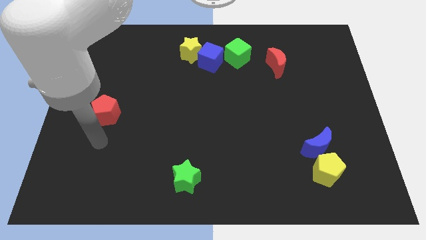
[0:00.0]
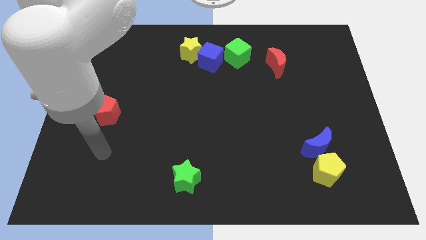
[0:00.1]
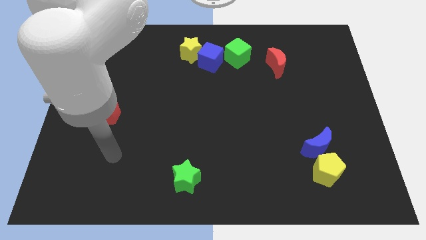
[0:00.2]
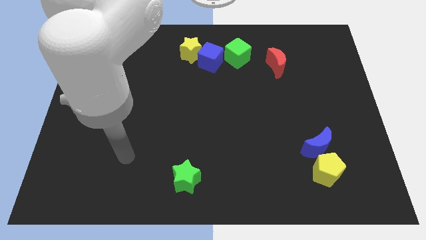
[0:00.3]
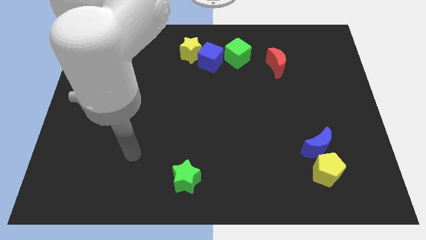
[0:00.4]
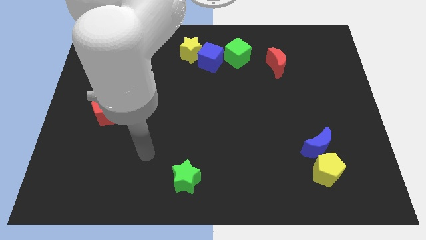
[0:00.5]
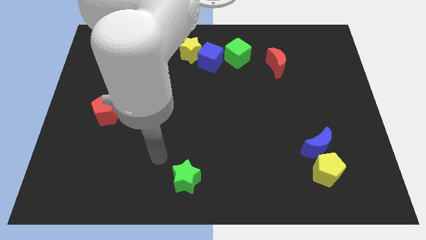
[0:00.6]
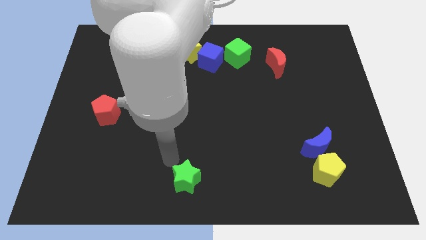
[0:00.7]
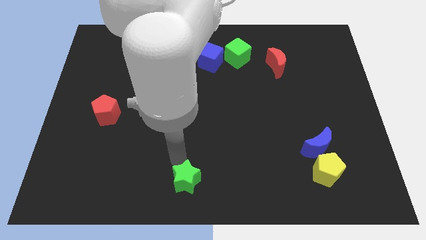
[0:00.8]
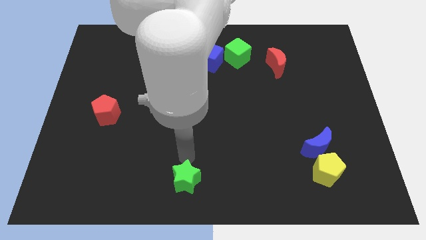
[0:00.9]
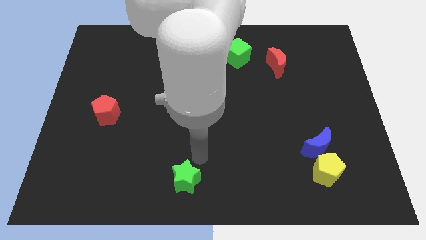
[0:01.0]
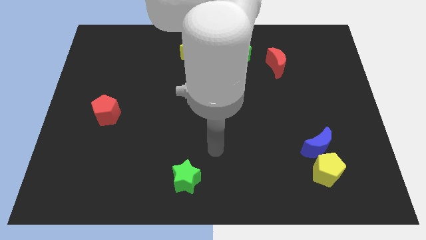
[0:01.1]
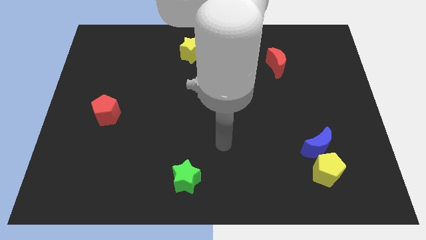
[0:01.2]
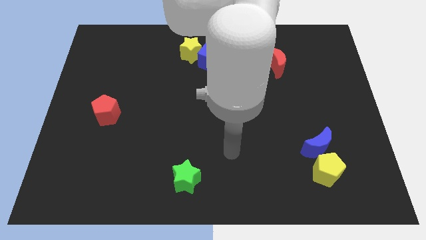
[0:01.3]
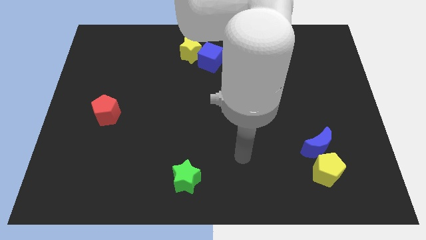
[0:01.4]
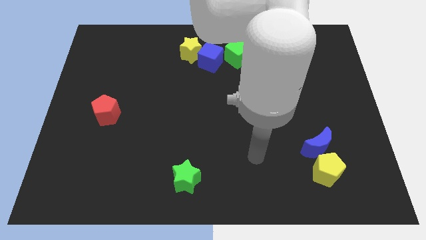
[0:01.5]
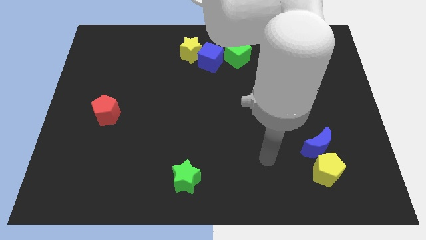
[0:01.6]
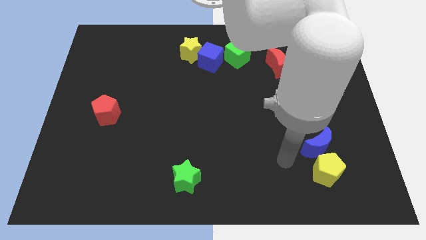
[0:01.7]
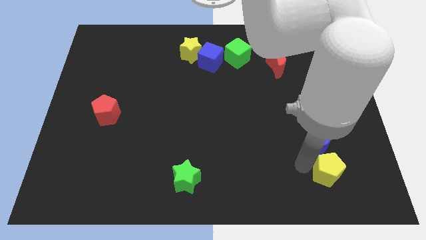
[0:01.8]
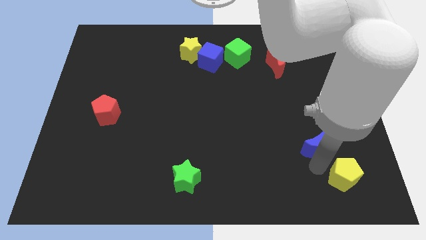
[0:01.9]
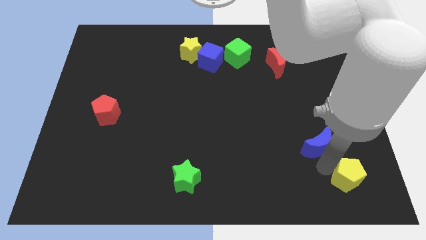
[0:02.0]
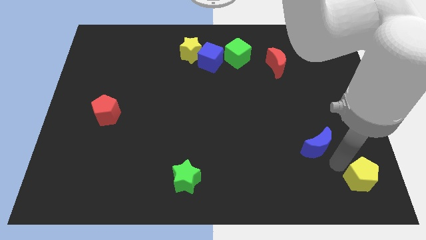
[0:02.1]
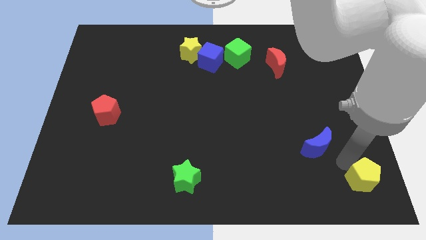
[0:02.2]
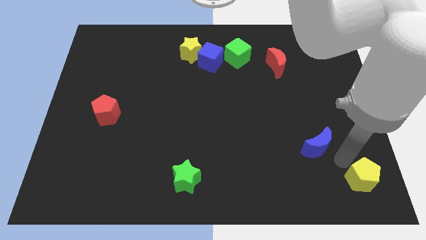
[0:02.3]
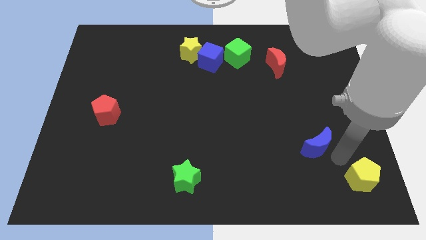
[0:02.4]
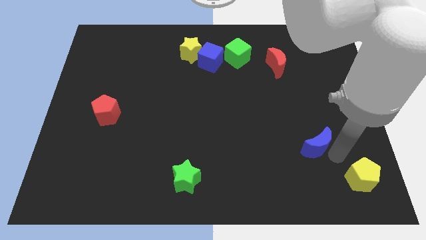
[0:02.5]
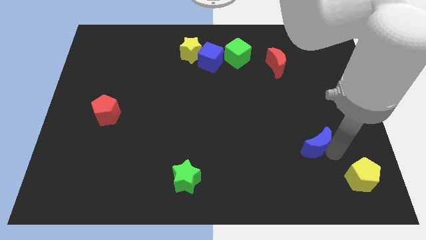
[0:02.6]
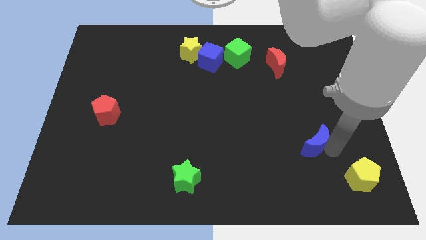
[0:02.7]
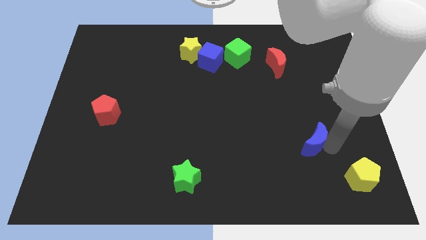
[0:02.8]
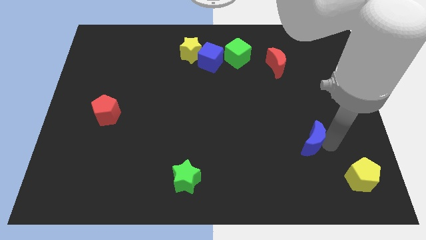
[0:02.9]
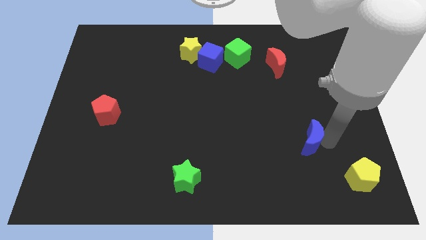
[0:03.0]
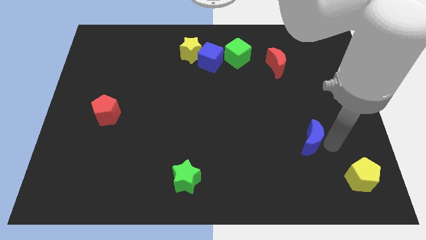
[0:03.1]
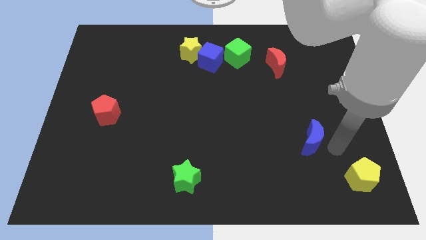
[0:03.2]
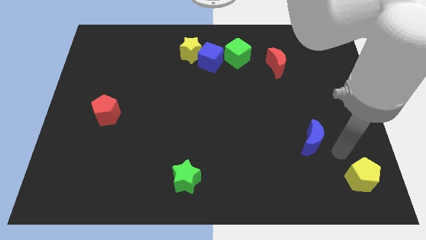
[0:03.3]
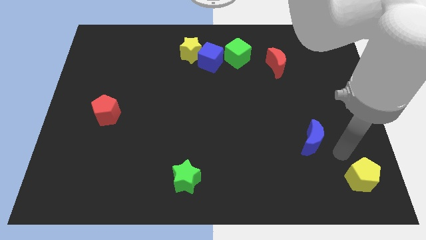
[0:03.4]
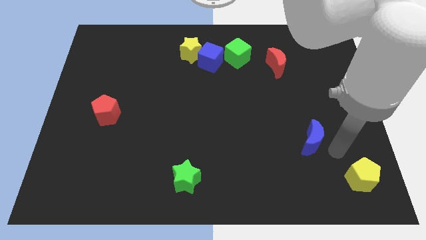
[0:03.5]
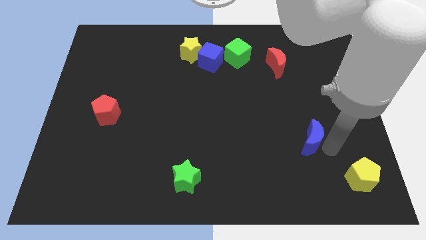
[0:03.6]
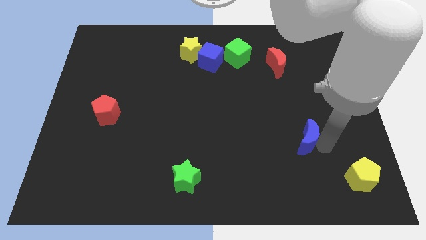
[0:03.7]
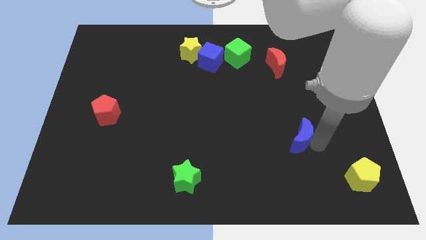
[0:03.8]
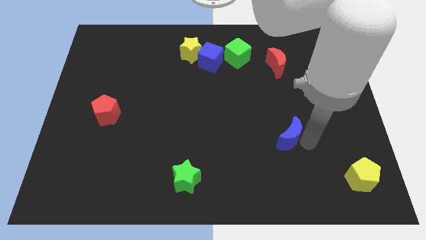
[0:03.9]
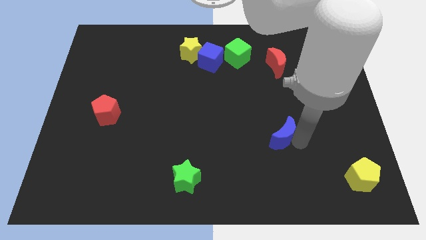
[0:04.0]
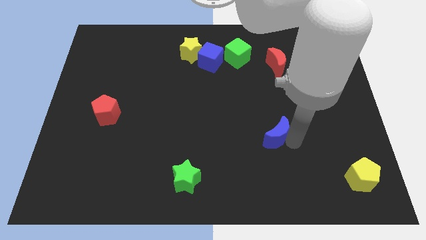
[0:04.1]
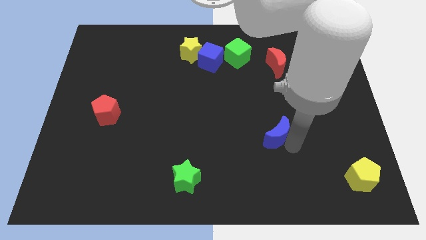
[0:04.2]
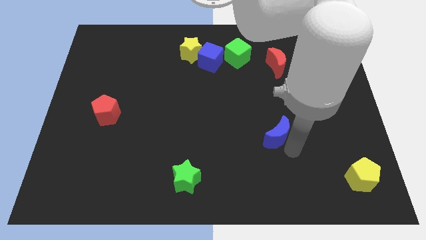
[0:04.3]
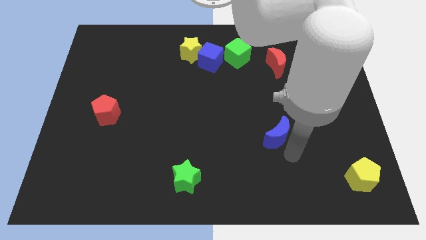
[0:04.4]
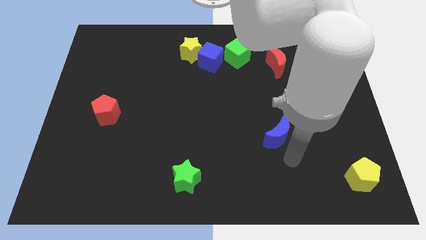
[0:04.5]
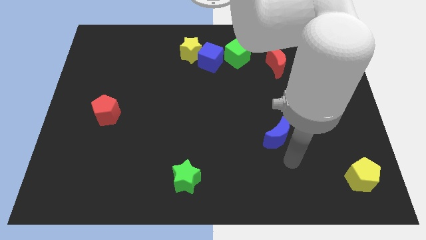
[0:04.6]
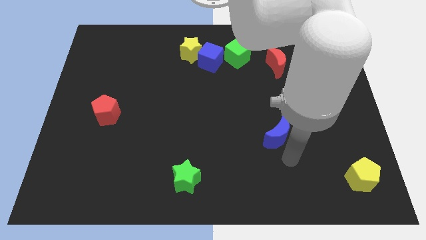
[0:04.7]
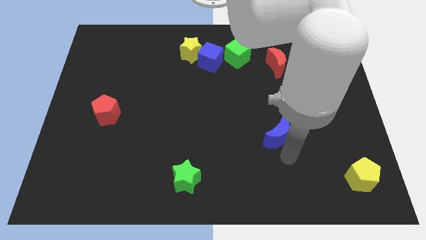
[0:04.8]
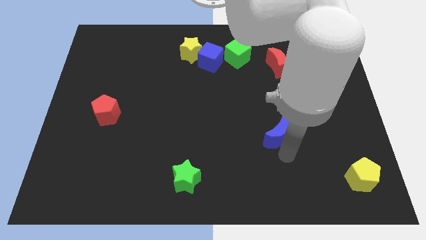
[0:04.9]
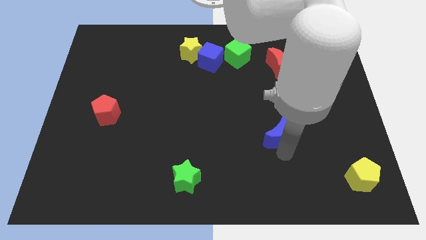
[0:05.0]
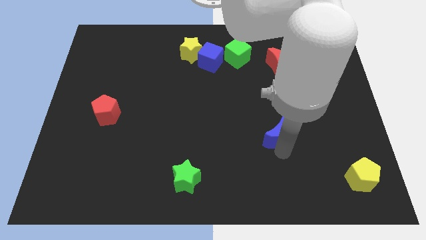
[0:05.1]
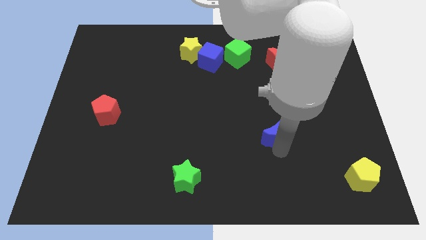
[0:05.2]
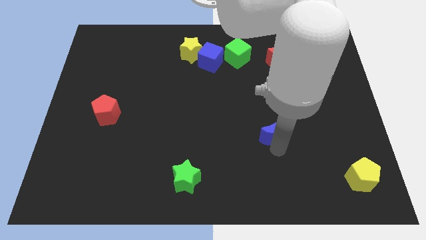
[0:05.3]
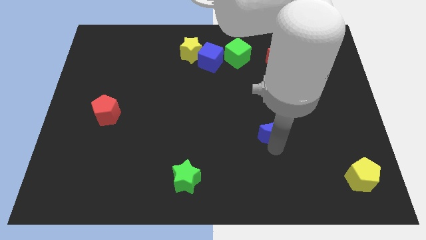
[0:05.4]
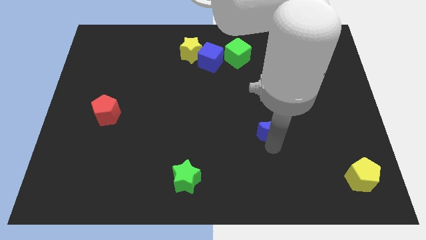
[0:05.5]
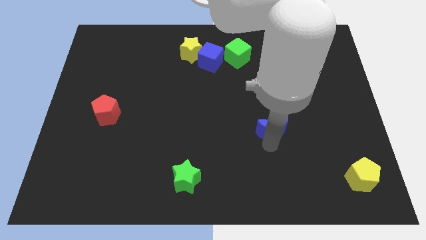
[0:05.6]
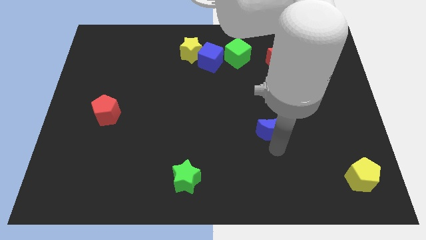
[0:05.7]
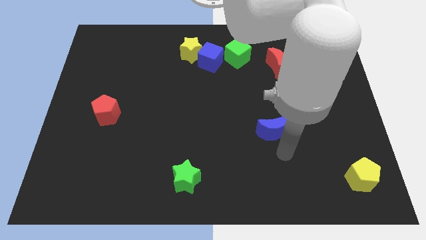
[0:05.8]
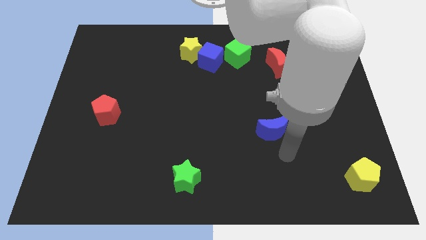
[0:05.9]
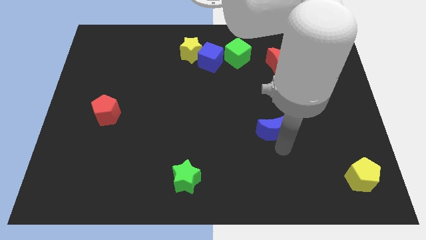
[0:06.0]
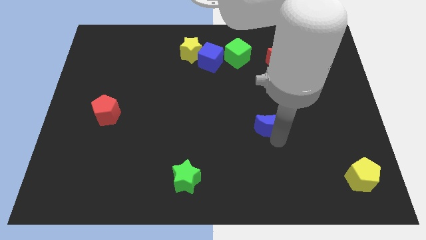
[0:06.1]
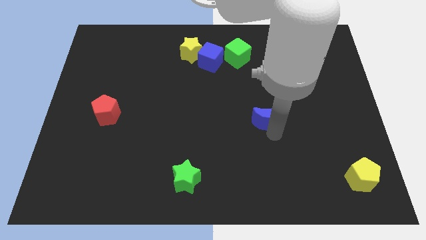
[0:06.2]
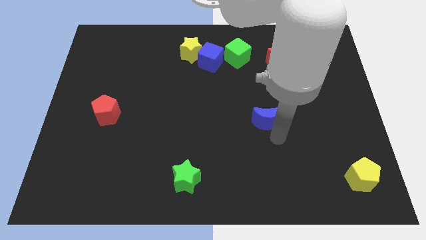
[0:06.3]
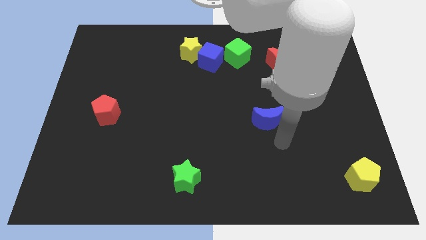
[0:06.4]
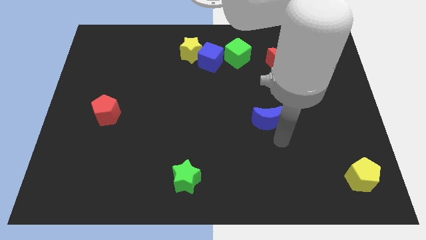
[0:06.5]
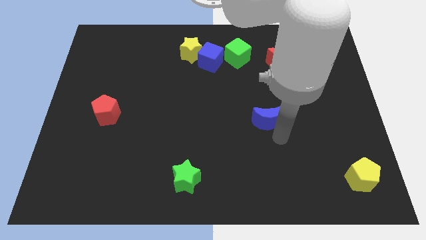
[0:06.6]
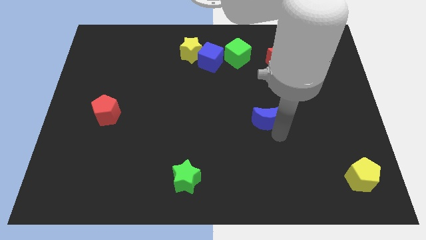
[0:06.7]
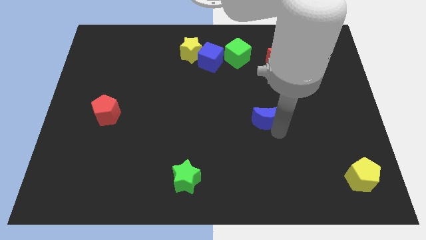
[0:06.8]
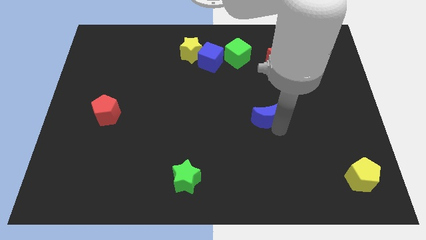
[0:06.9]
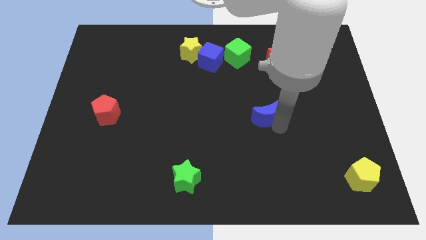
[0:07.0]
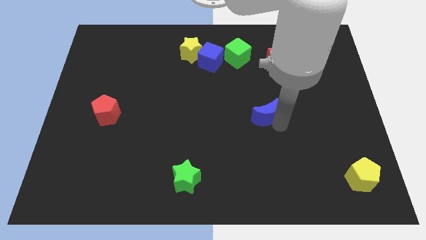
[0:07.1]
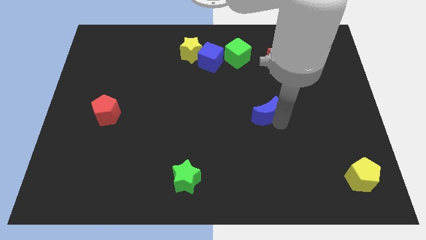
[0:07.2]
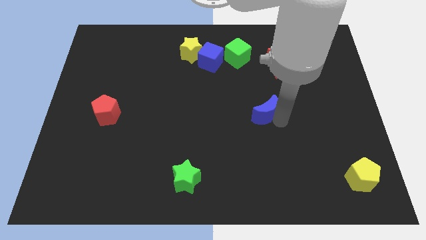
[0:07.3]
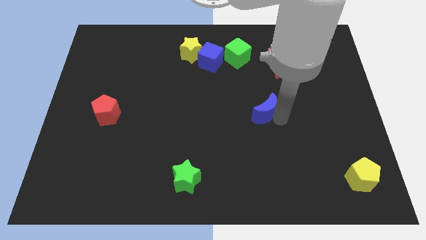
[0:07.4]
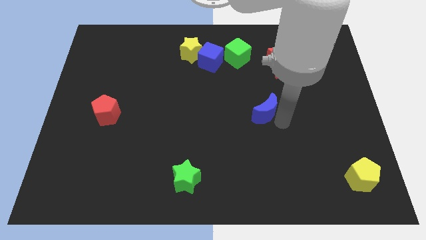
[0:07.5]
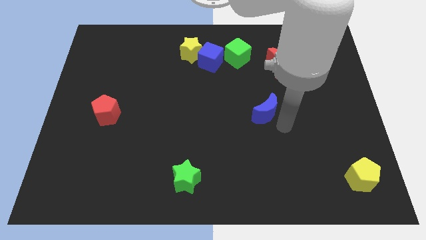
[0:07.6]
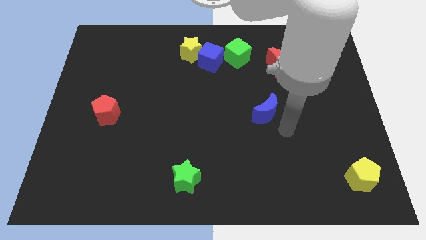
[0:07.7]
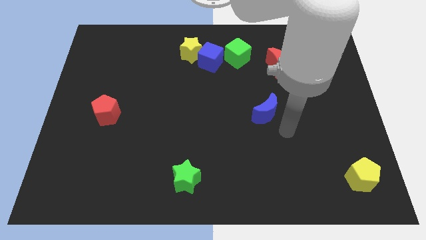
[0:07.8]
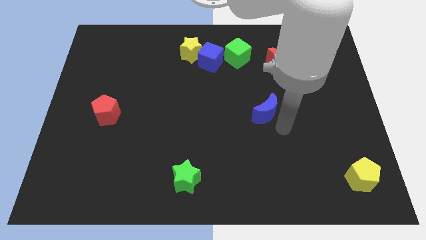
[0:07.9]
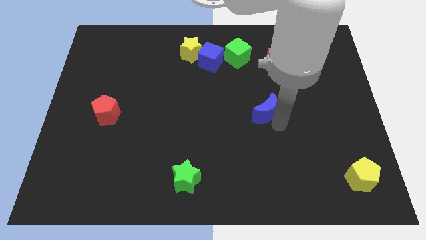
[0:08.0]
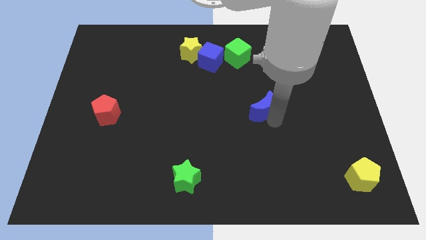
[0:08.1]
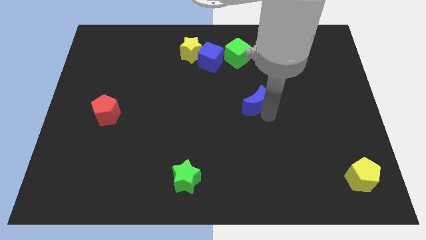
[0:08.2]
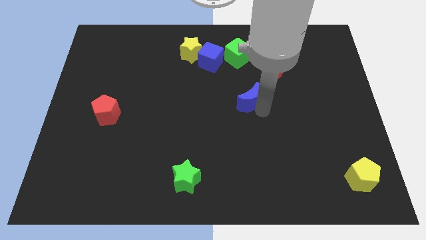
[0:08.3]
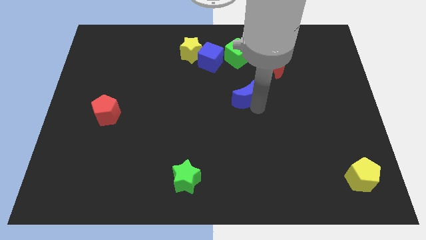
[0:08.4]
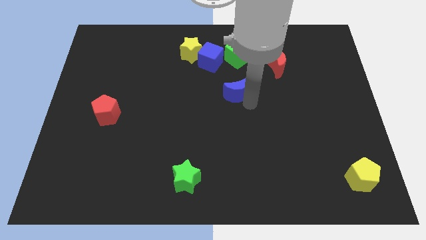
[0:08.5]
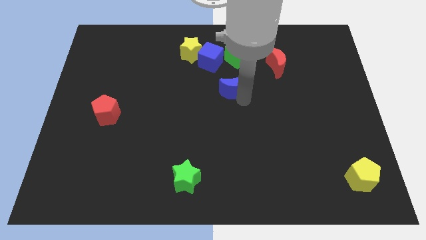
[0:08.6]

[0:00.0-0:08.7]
put the blue moon to the bottom right side of the blue cube
